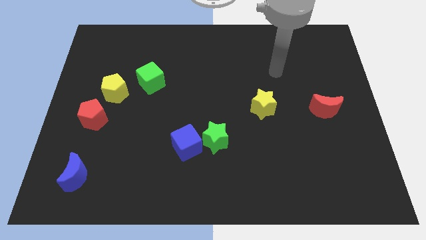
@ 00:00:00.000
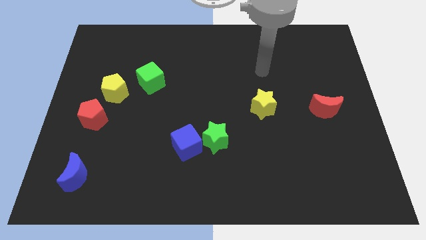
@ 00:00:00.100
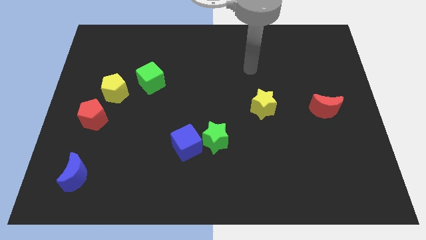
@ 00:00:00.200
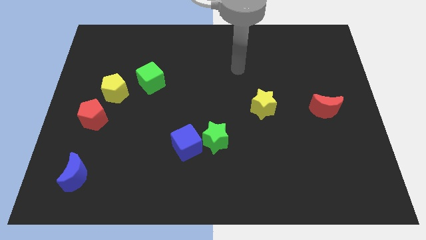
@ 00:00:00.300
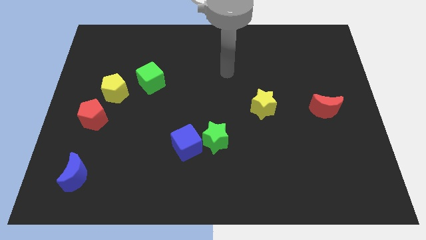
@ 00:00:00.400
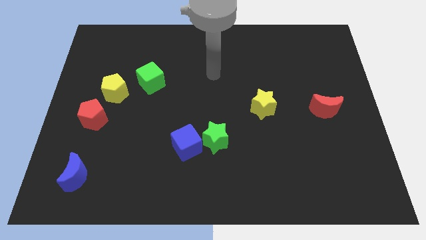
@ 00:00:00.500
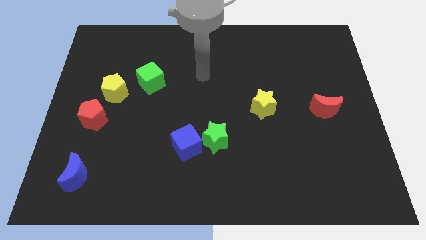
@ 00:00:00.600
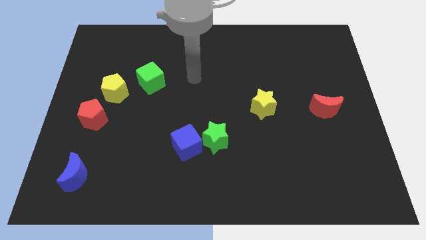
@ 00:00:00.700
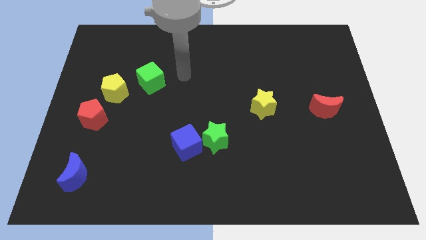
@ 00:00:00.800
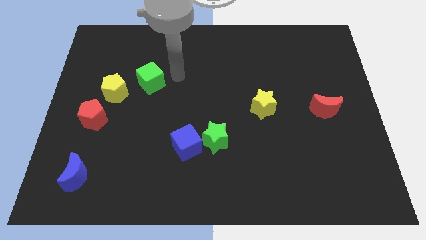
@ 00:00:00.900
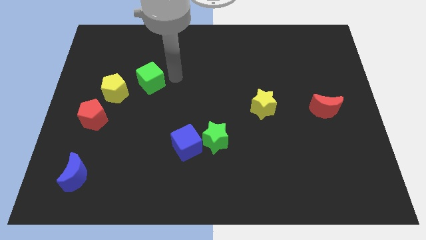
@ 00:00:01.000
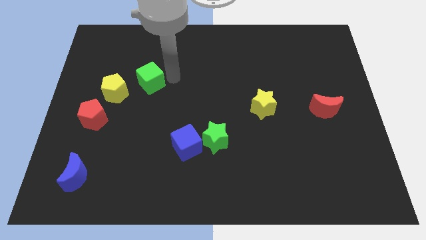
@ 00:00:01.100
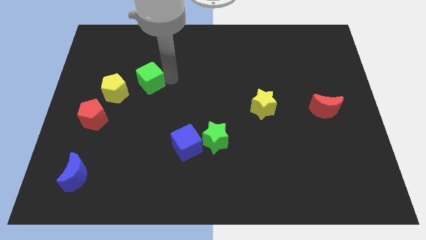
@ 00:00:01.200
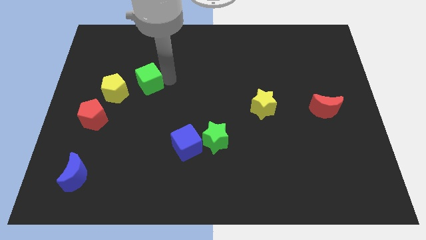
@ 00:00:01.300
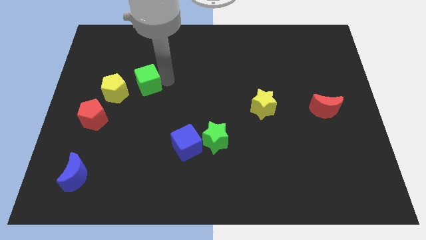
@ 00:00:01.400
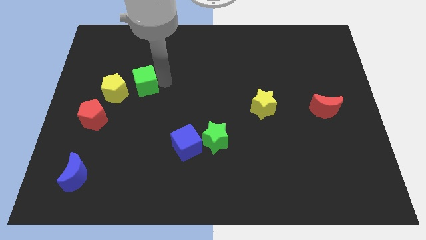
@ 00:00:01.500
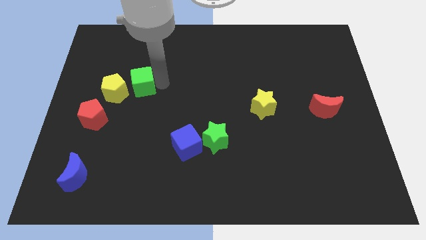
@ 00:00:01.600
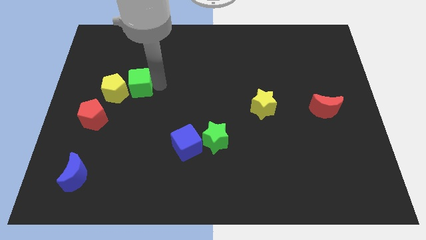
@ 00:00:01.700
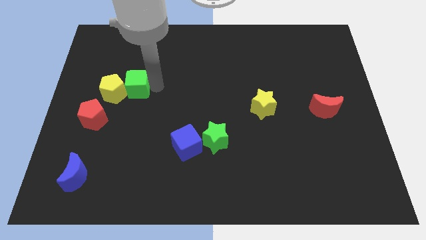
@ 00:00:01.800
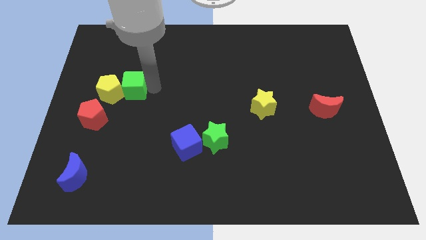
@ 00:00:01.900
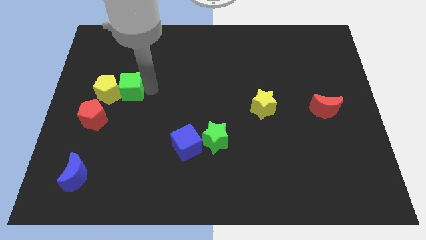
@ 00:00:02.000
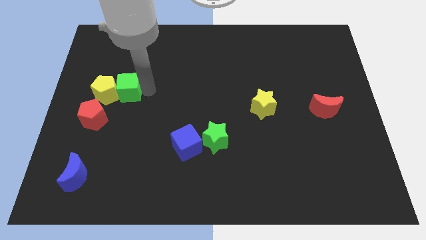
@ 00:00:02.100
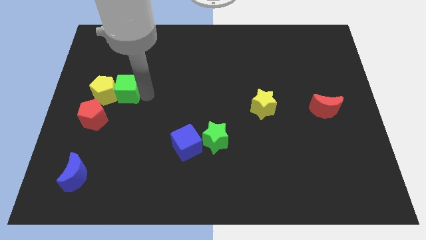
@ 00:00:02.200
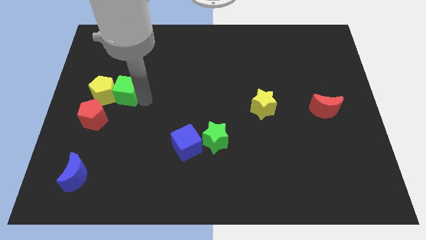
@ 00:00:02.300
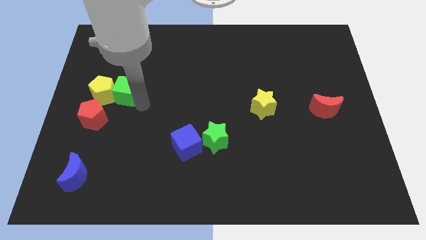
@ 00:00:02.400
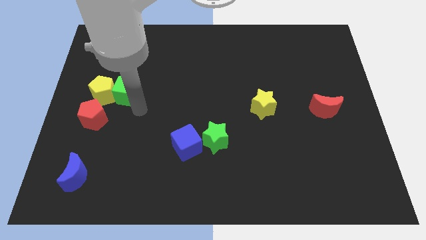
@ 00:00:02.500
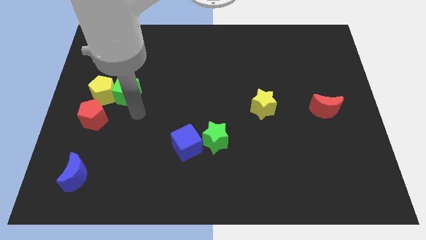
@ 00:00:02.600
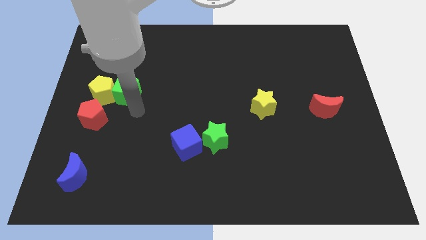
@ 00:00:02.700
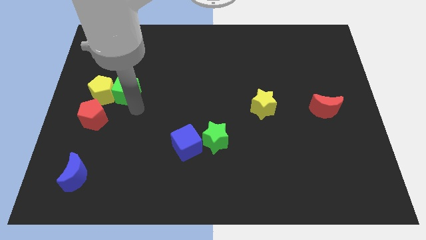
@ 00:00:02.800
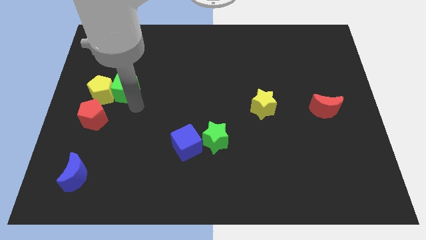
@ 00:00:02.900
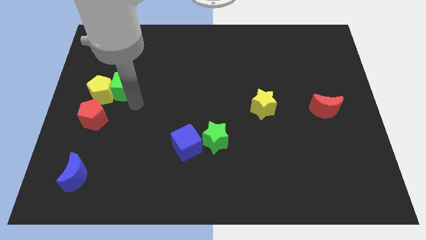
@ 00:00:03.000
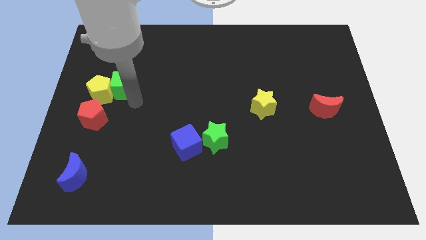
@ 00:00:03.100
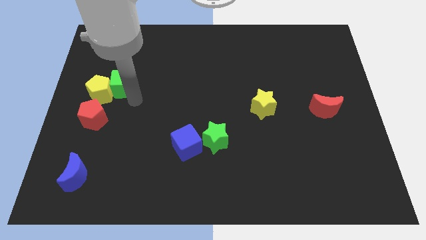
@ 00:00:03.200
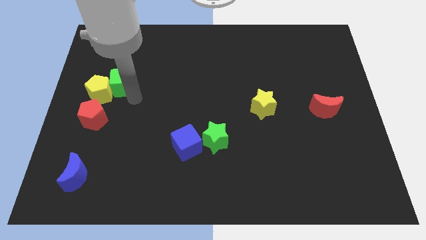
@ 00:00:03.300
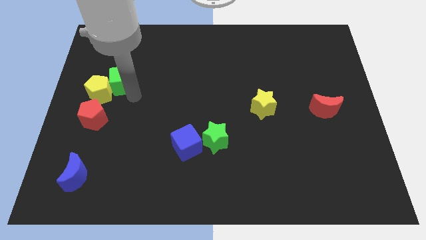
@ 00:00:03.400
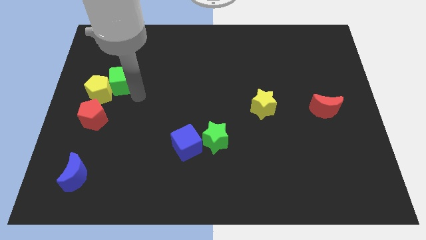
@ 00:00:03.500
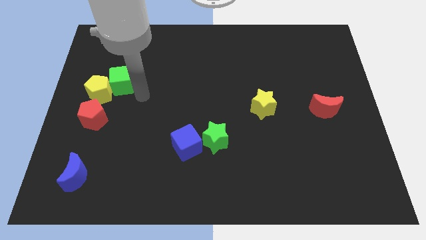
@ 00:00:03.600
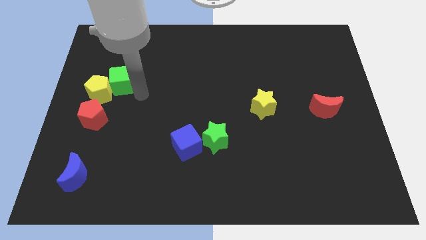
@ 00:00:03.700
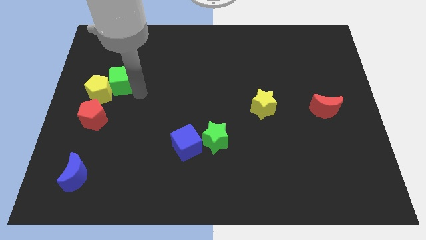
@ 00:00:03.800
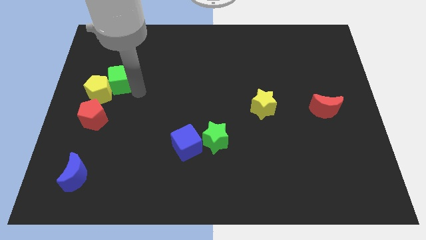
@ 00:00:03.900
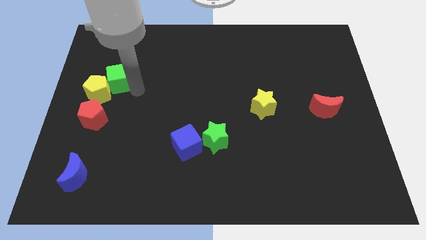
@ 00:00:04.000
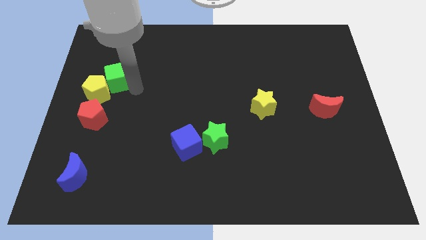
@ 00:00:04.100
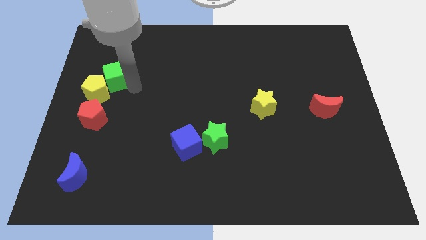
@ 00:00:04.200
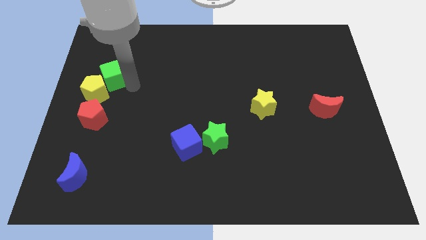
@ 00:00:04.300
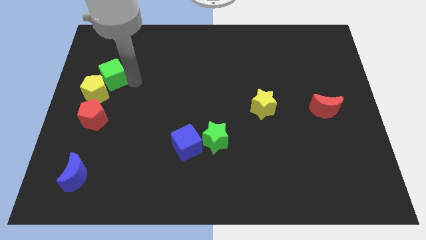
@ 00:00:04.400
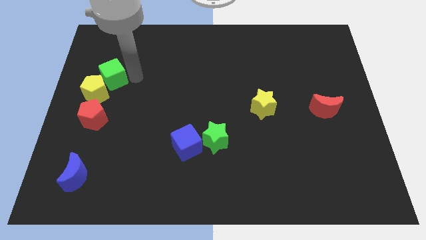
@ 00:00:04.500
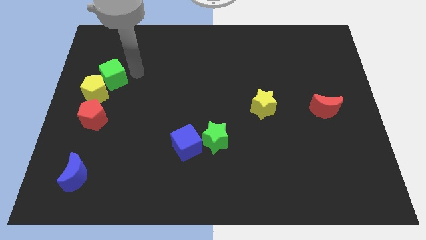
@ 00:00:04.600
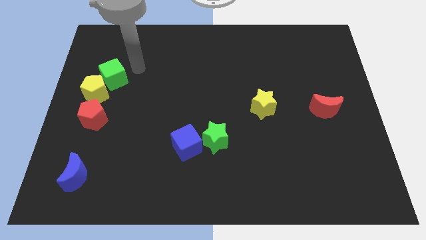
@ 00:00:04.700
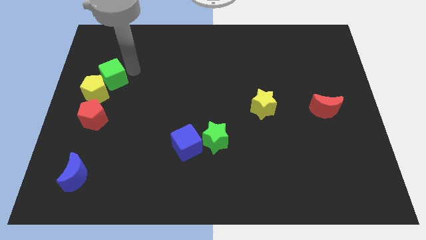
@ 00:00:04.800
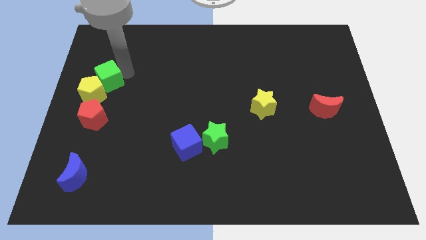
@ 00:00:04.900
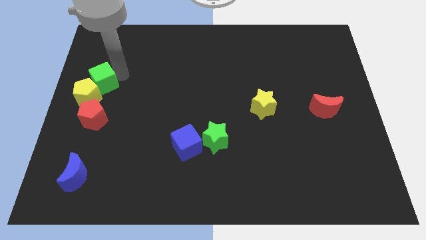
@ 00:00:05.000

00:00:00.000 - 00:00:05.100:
slide the green cube to the center left

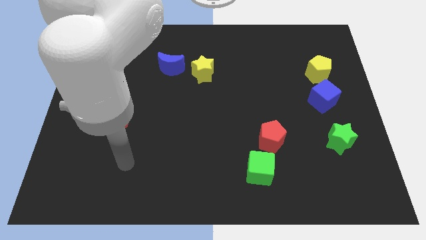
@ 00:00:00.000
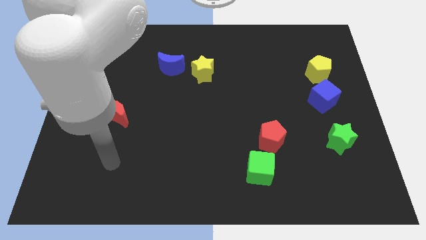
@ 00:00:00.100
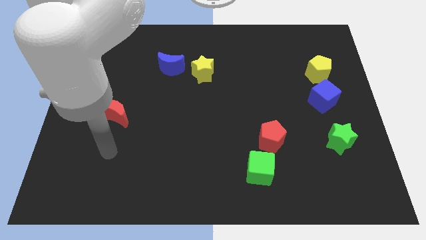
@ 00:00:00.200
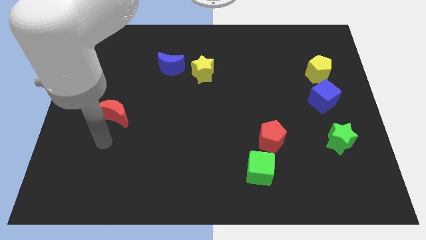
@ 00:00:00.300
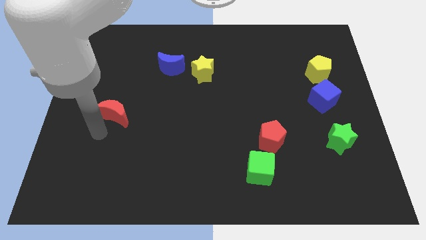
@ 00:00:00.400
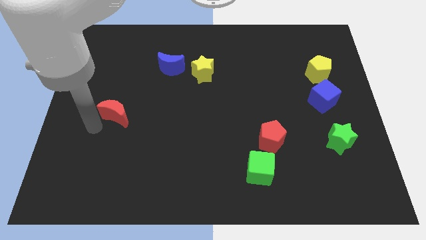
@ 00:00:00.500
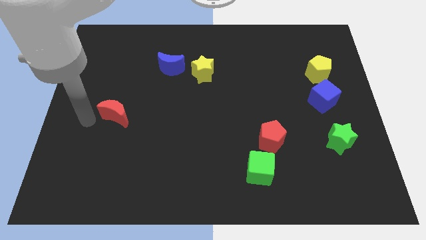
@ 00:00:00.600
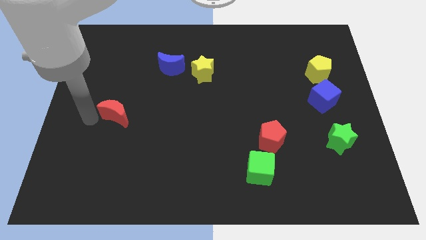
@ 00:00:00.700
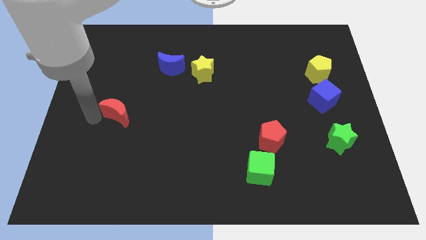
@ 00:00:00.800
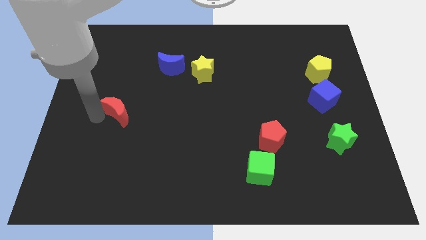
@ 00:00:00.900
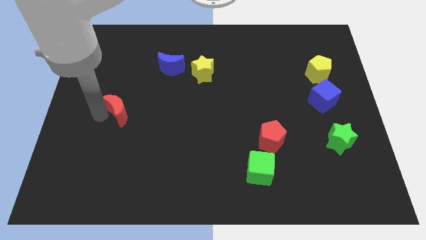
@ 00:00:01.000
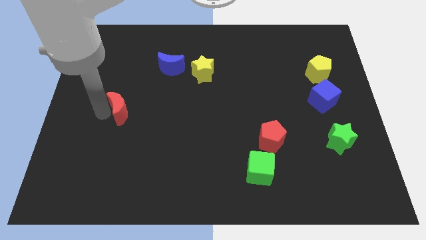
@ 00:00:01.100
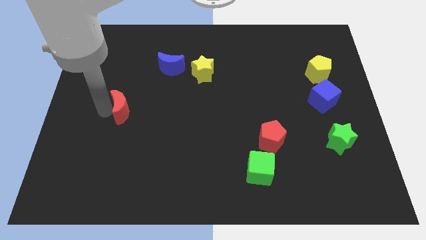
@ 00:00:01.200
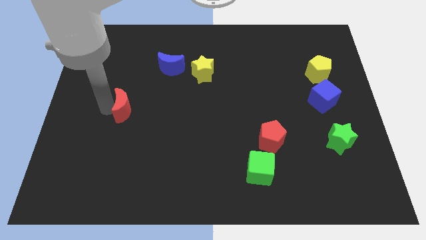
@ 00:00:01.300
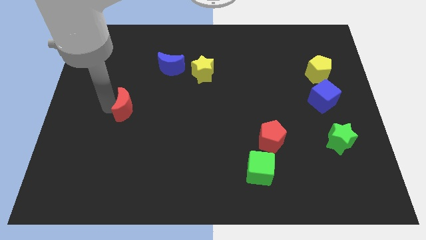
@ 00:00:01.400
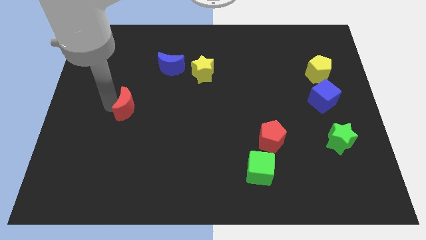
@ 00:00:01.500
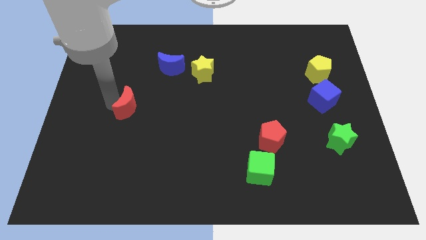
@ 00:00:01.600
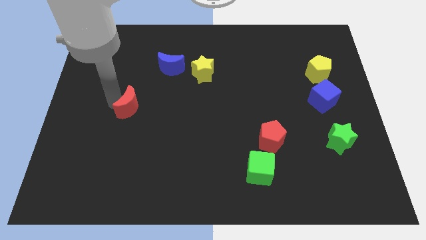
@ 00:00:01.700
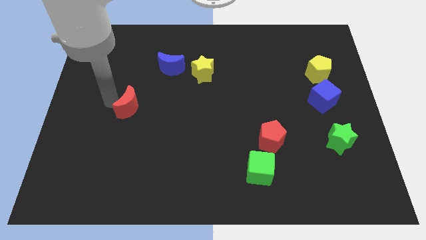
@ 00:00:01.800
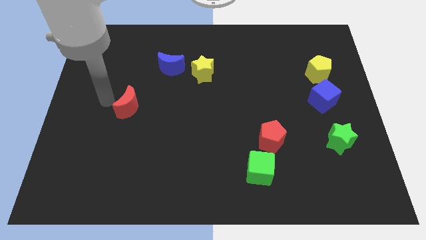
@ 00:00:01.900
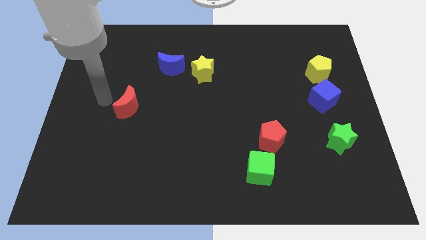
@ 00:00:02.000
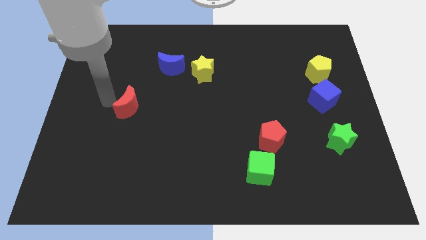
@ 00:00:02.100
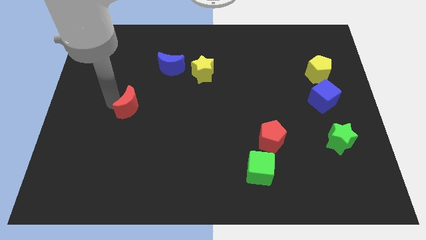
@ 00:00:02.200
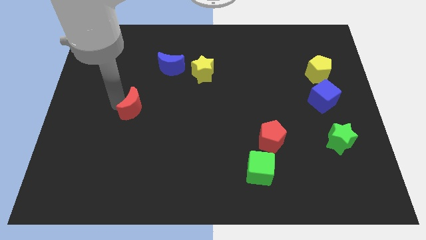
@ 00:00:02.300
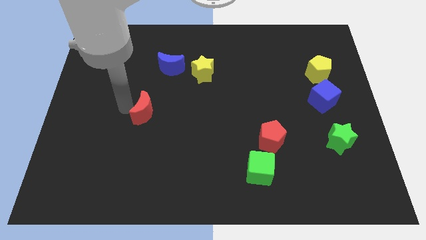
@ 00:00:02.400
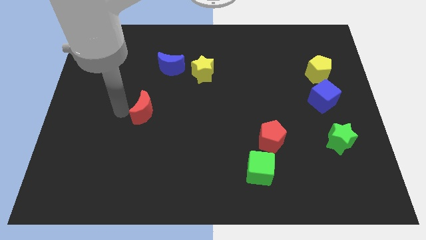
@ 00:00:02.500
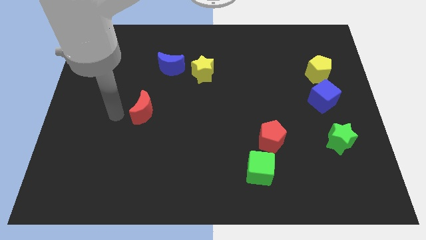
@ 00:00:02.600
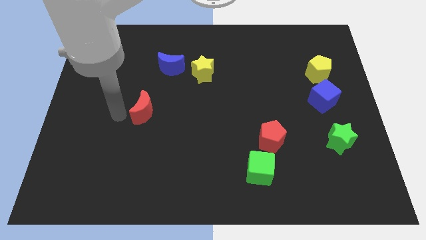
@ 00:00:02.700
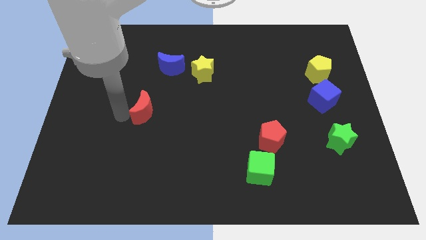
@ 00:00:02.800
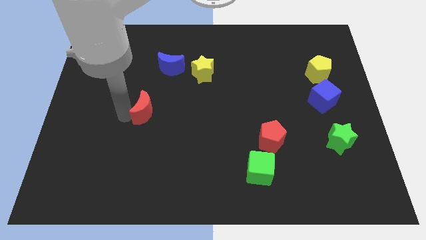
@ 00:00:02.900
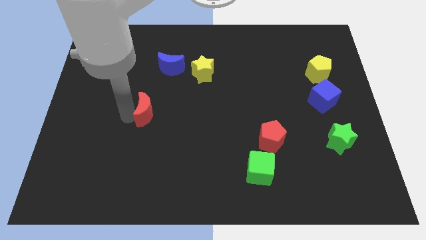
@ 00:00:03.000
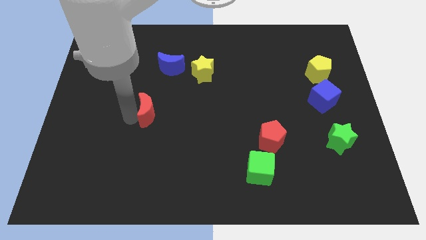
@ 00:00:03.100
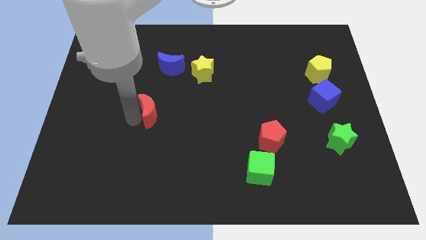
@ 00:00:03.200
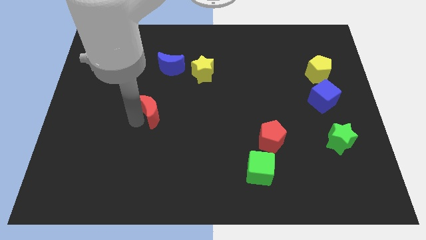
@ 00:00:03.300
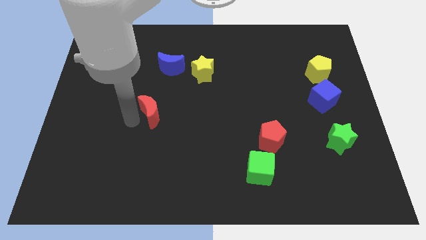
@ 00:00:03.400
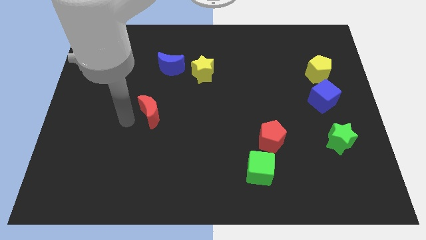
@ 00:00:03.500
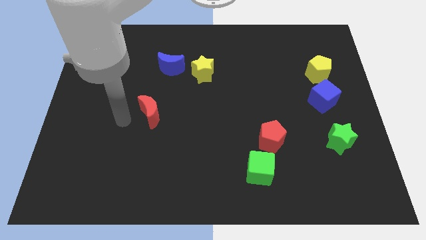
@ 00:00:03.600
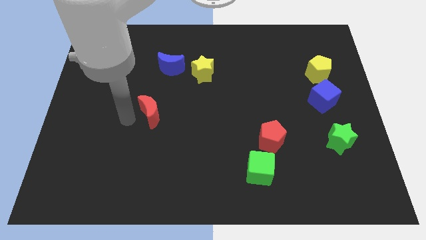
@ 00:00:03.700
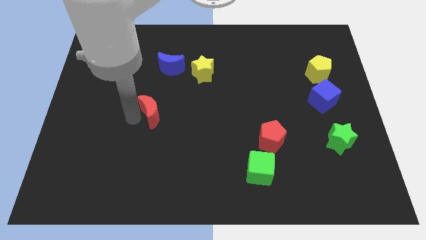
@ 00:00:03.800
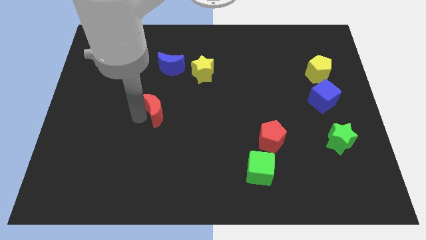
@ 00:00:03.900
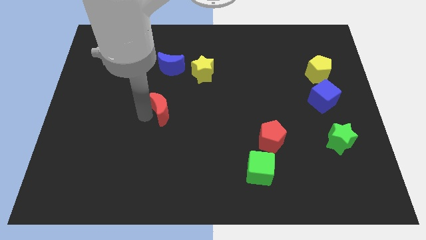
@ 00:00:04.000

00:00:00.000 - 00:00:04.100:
move the red moon to the center
